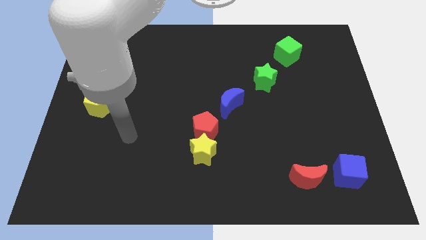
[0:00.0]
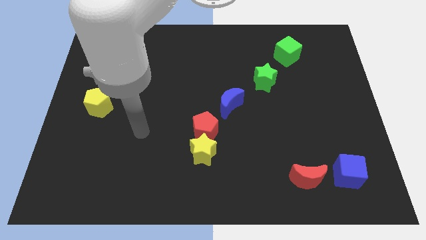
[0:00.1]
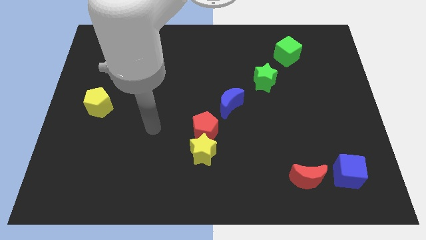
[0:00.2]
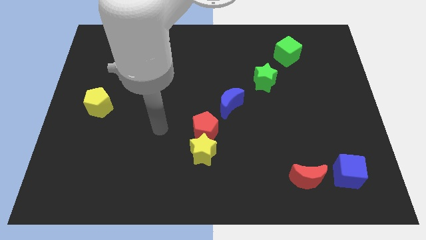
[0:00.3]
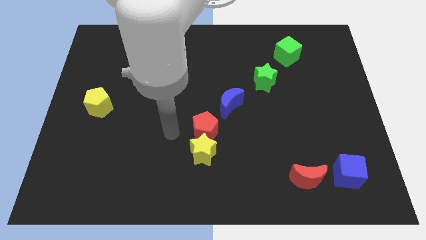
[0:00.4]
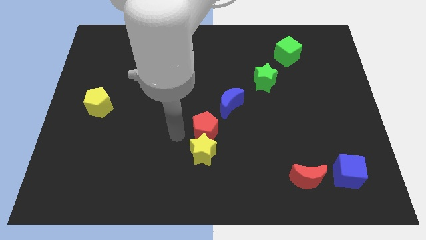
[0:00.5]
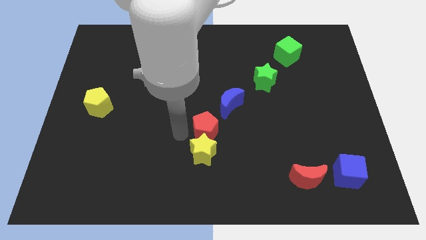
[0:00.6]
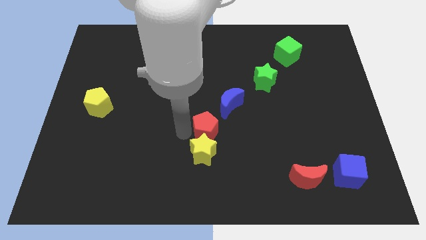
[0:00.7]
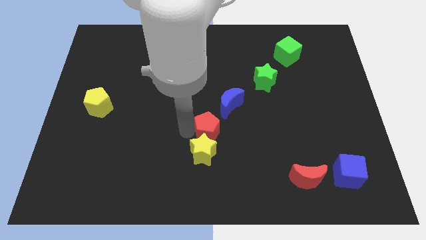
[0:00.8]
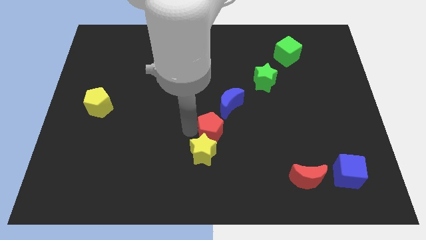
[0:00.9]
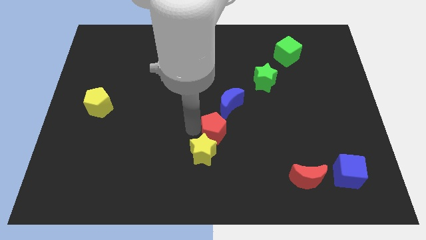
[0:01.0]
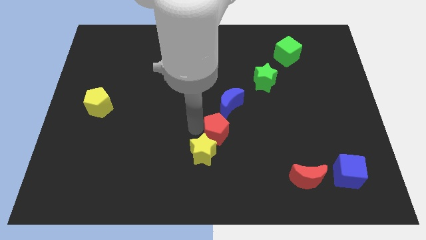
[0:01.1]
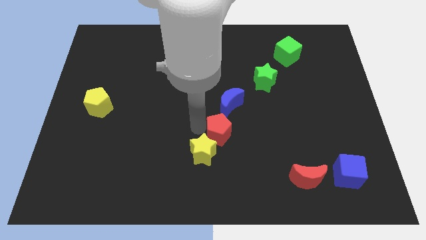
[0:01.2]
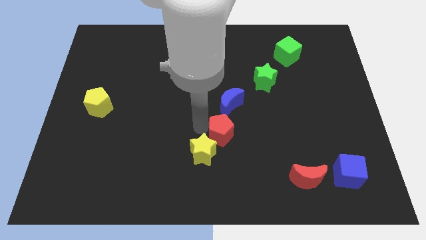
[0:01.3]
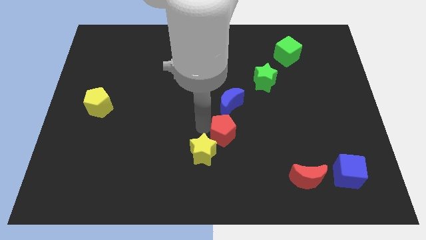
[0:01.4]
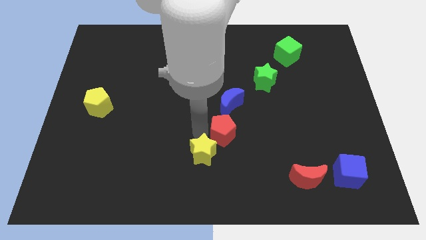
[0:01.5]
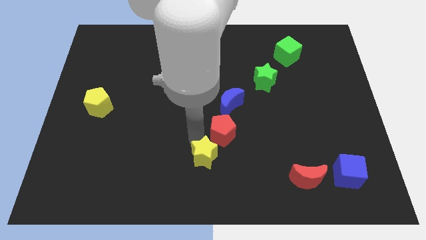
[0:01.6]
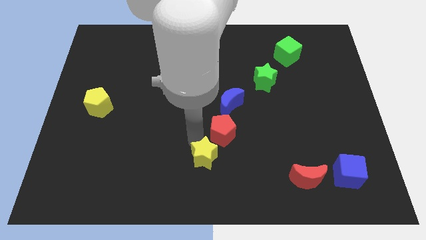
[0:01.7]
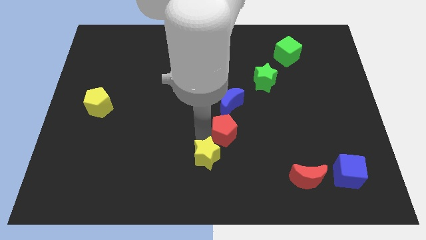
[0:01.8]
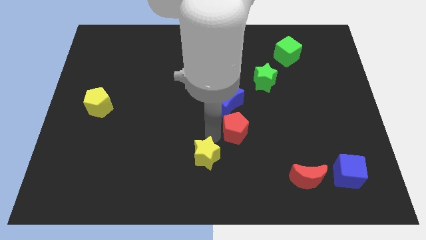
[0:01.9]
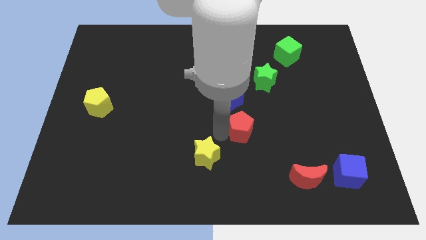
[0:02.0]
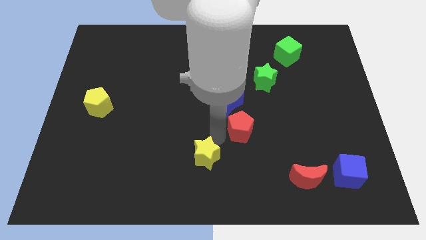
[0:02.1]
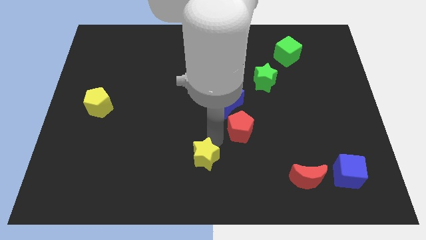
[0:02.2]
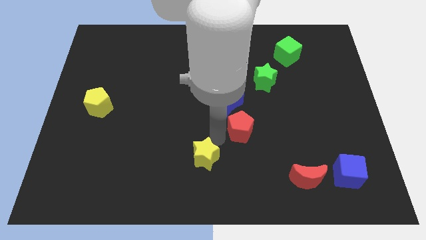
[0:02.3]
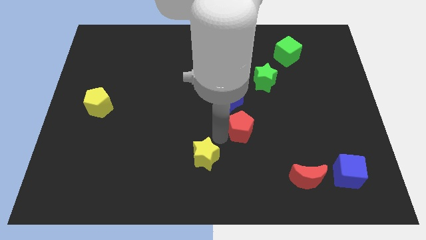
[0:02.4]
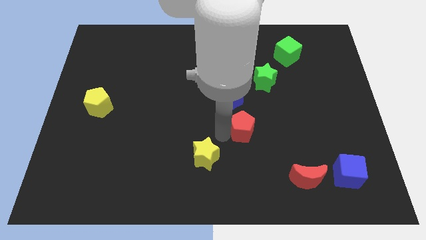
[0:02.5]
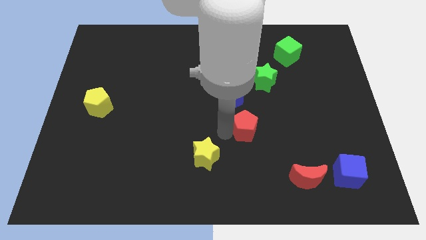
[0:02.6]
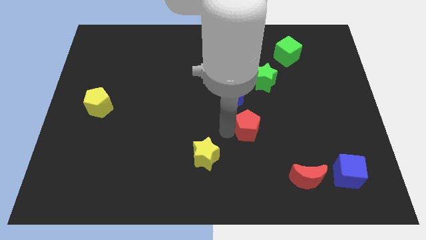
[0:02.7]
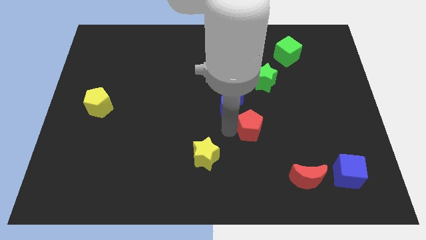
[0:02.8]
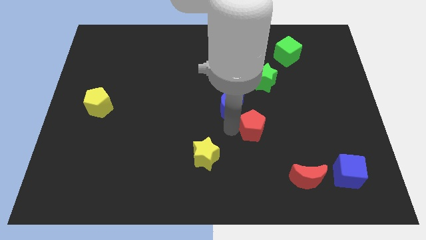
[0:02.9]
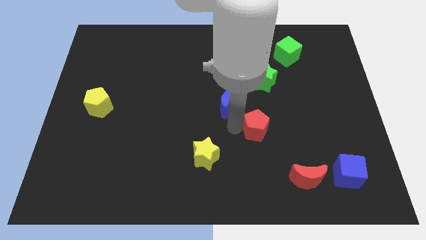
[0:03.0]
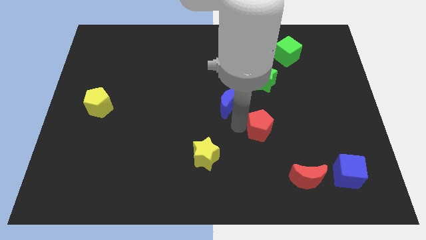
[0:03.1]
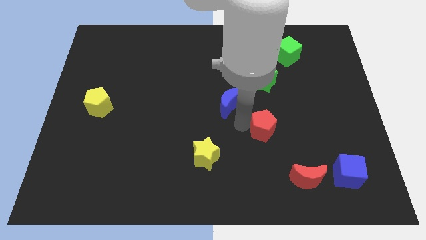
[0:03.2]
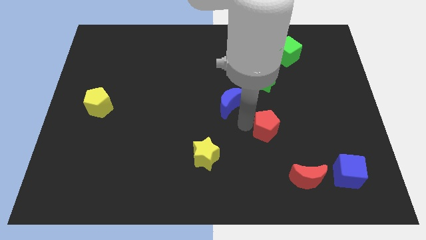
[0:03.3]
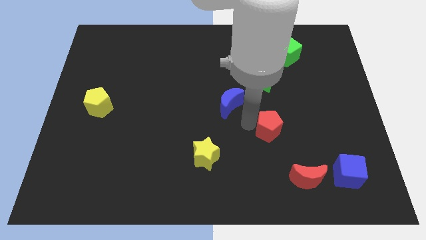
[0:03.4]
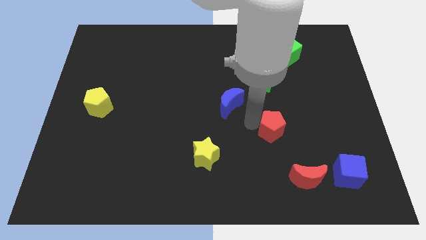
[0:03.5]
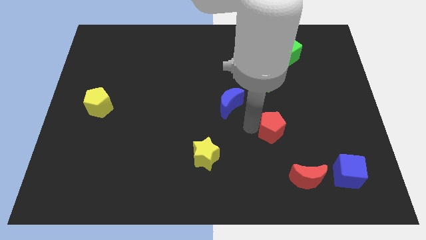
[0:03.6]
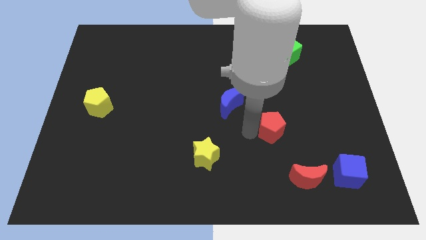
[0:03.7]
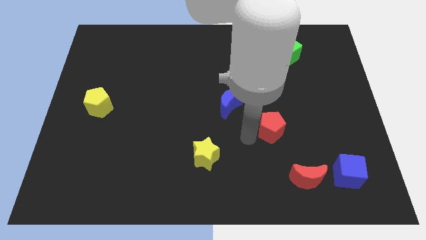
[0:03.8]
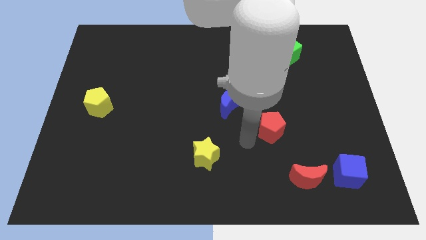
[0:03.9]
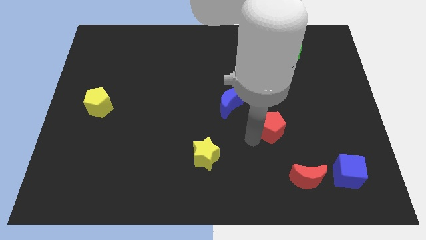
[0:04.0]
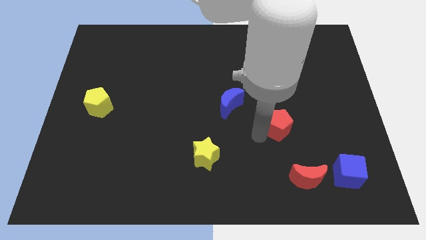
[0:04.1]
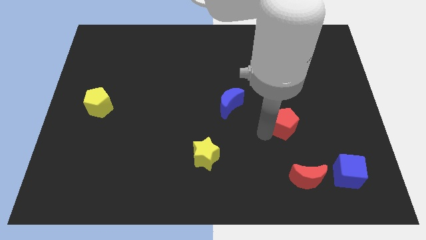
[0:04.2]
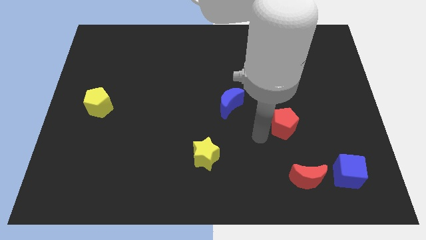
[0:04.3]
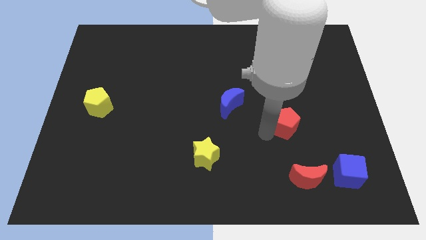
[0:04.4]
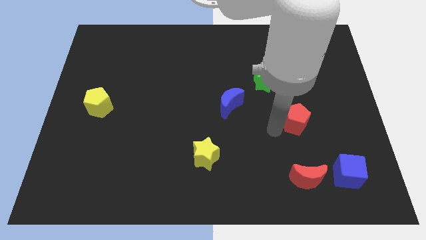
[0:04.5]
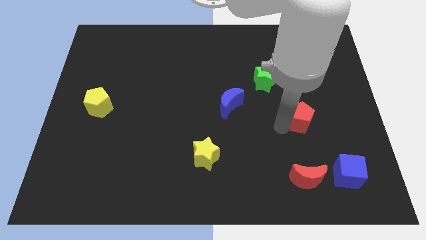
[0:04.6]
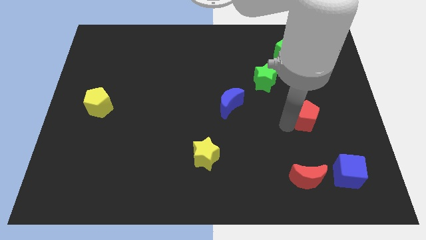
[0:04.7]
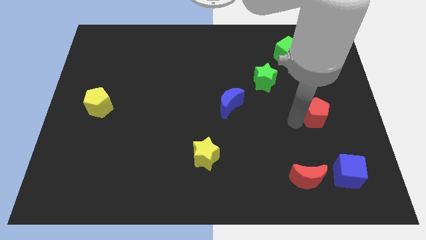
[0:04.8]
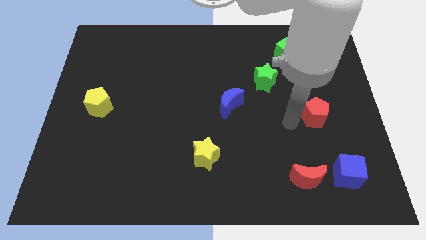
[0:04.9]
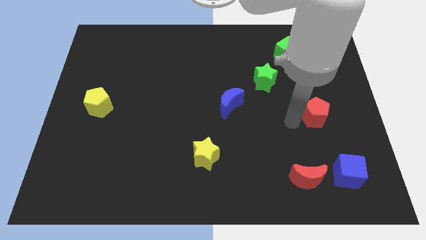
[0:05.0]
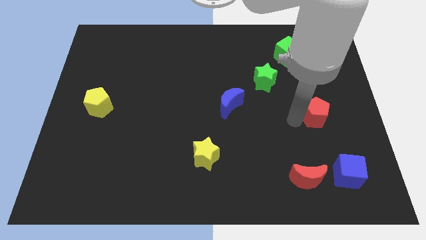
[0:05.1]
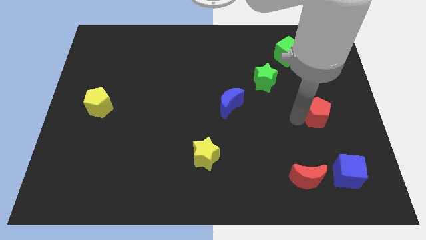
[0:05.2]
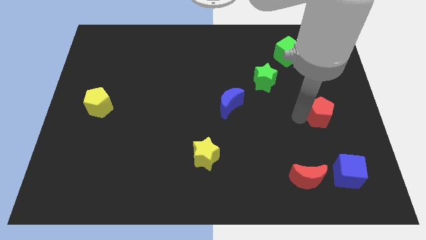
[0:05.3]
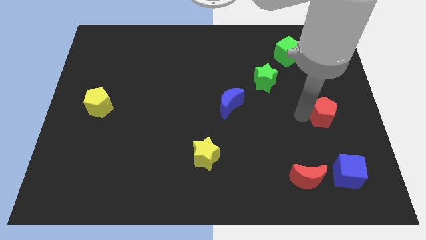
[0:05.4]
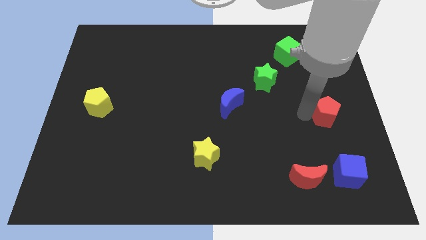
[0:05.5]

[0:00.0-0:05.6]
put the red pentagon to the center right
